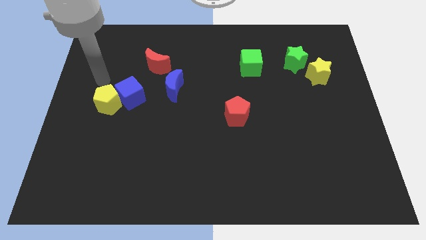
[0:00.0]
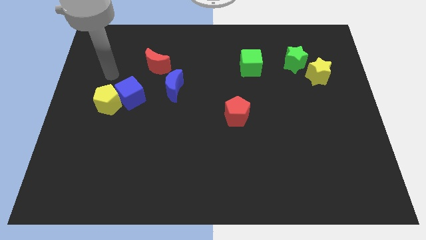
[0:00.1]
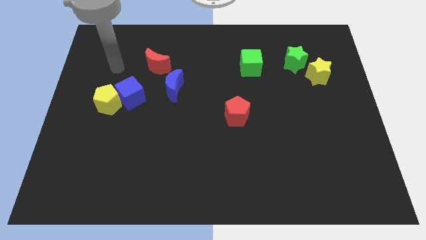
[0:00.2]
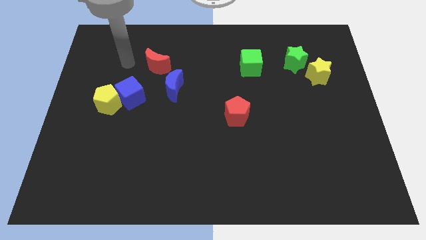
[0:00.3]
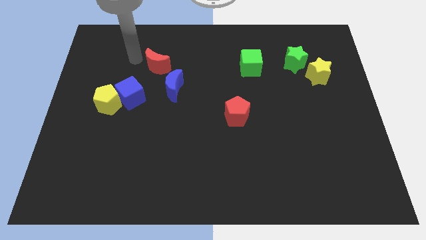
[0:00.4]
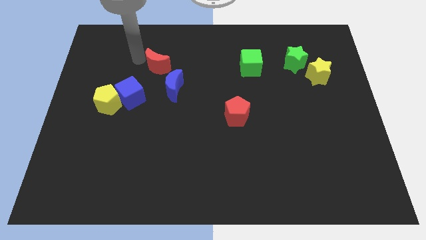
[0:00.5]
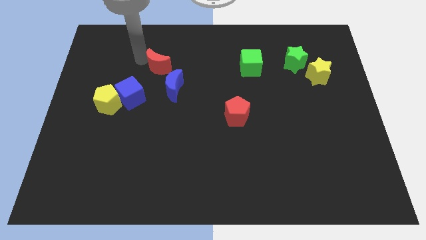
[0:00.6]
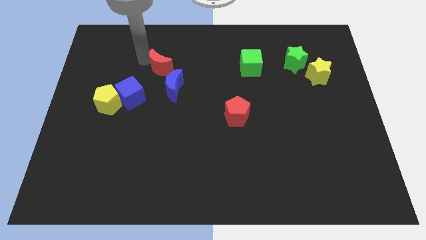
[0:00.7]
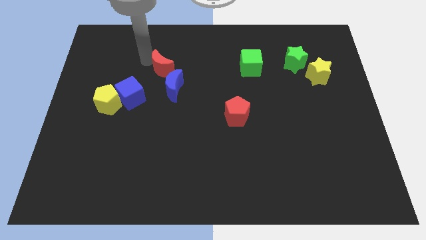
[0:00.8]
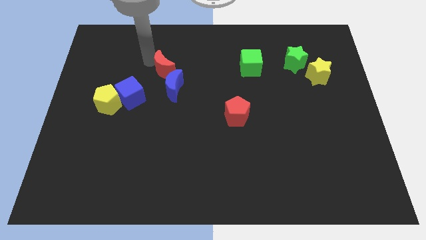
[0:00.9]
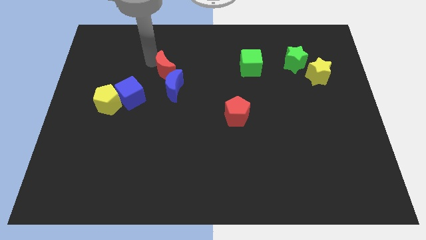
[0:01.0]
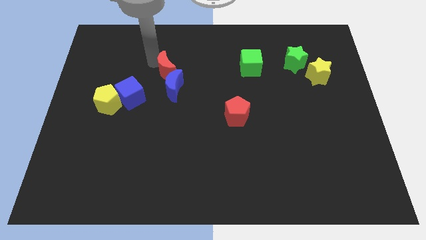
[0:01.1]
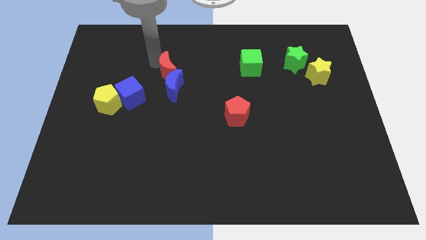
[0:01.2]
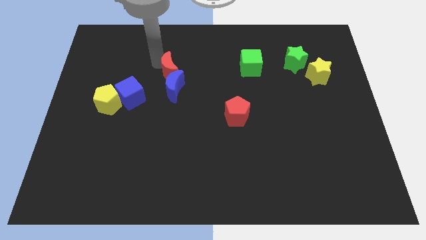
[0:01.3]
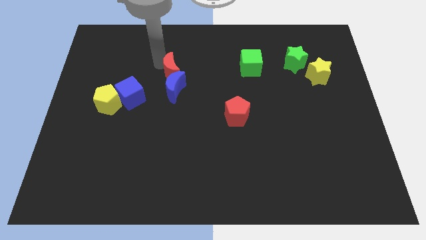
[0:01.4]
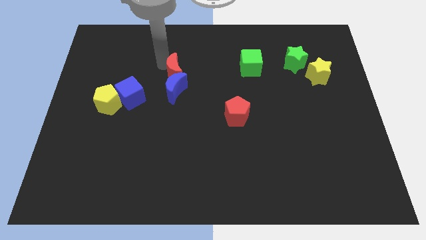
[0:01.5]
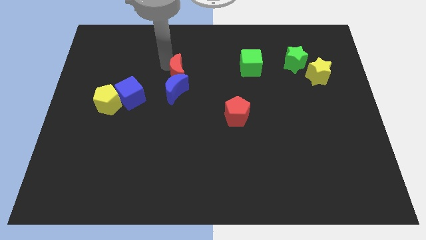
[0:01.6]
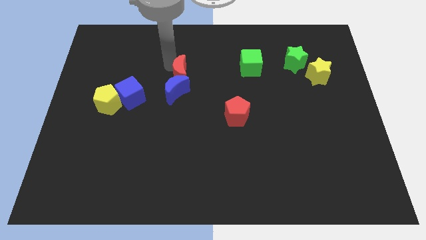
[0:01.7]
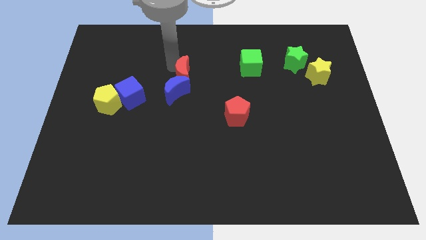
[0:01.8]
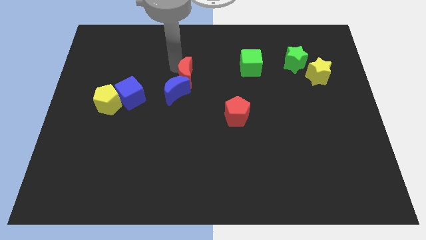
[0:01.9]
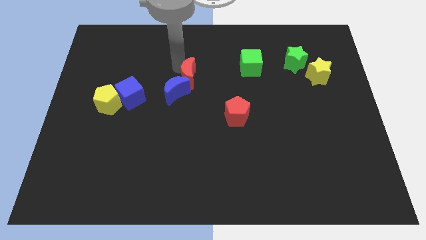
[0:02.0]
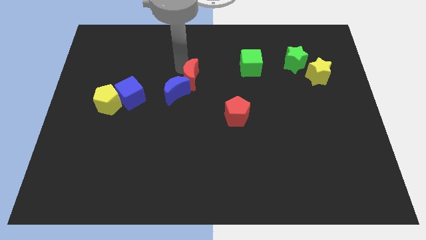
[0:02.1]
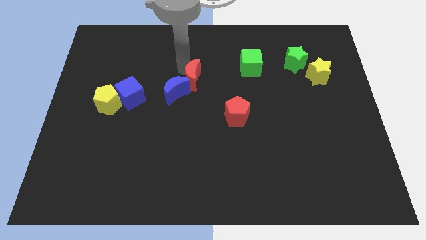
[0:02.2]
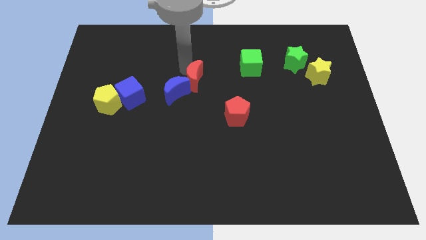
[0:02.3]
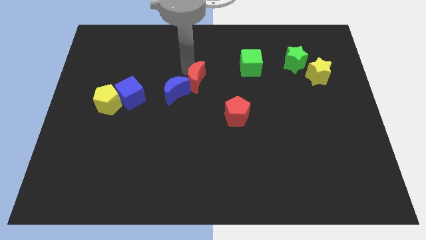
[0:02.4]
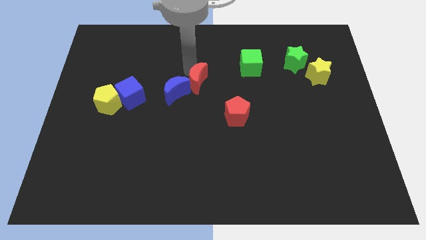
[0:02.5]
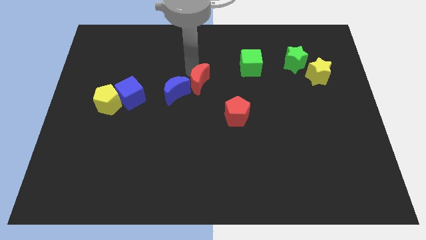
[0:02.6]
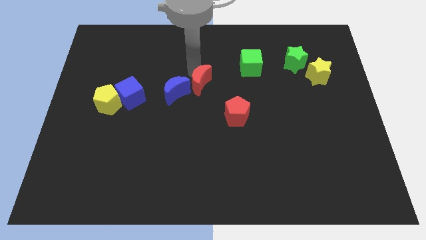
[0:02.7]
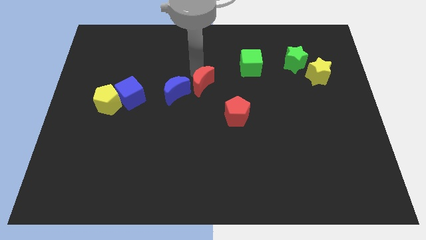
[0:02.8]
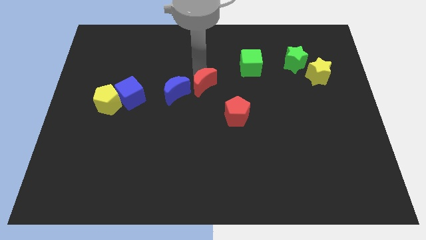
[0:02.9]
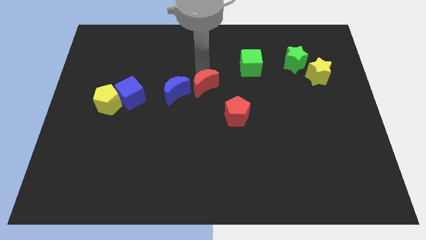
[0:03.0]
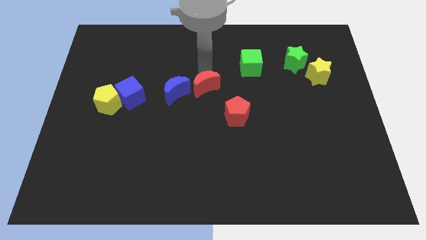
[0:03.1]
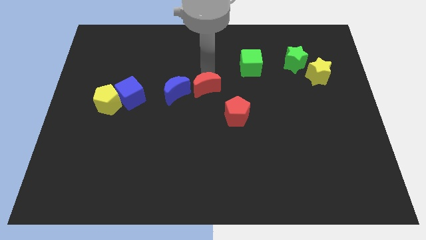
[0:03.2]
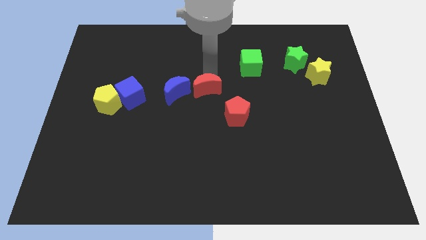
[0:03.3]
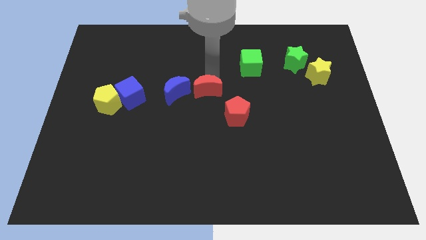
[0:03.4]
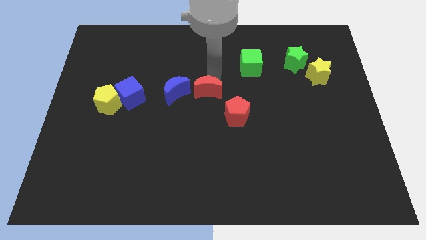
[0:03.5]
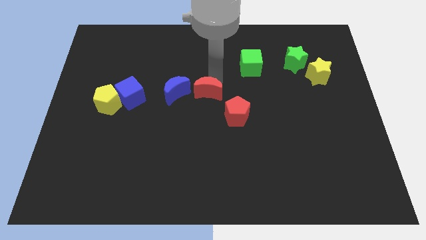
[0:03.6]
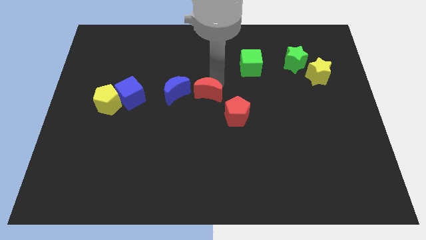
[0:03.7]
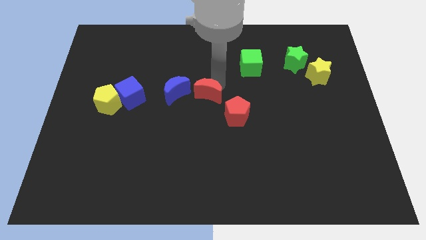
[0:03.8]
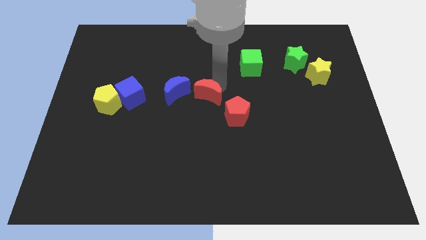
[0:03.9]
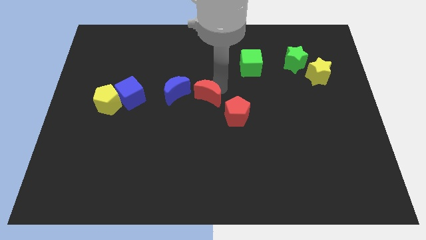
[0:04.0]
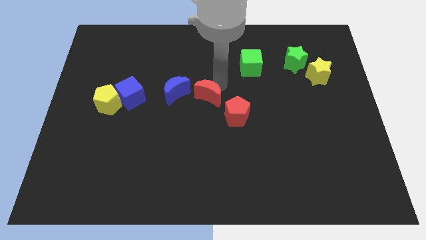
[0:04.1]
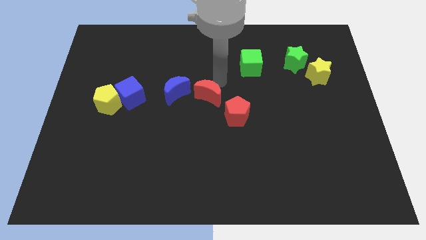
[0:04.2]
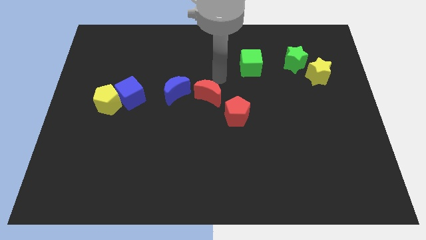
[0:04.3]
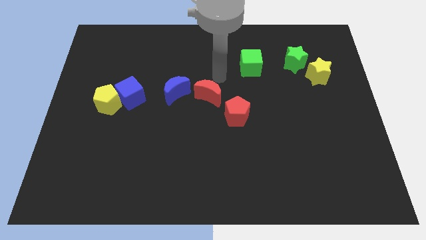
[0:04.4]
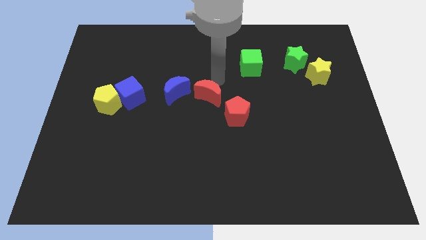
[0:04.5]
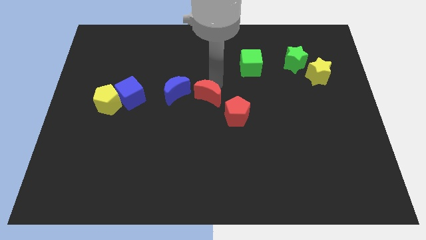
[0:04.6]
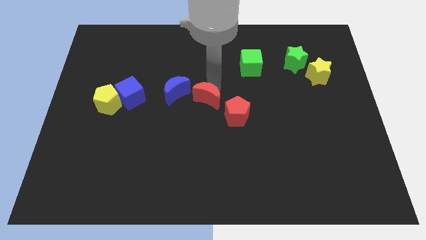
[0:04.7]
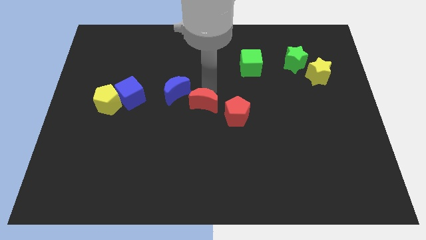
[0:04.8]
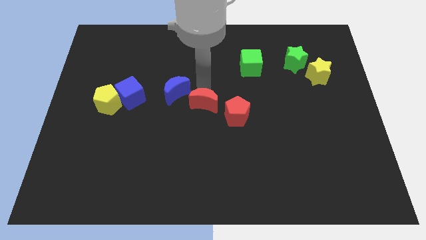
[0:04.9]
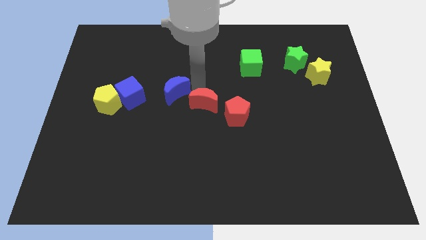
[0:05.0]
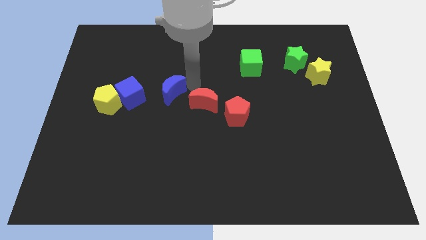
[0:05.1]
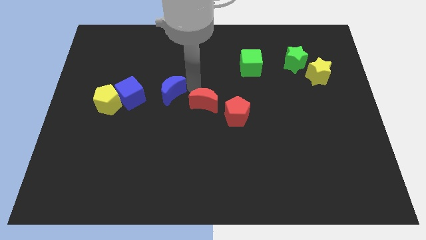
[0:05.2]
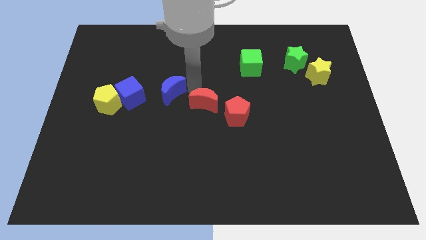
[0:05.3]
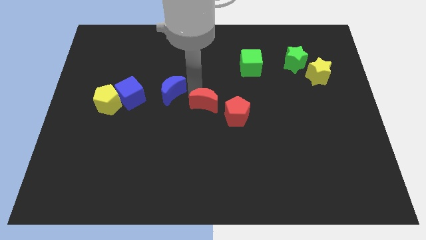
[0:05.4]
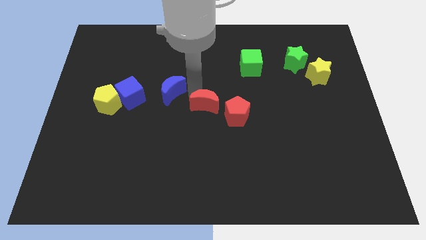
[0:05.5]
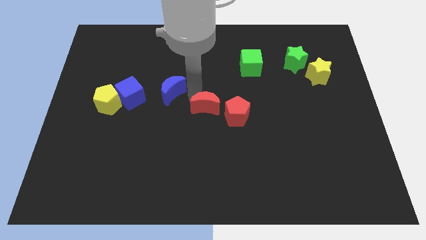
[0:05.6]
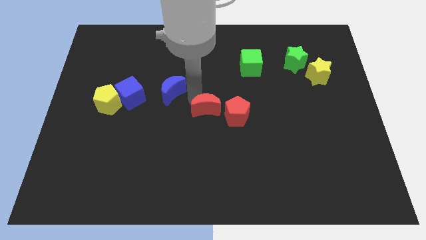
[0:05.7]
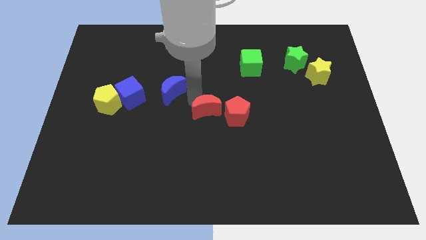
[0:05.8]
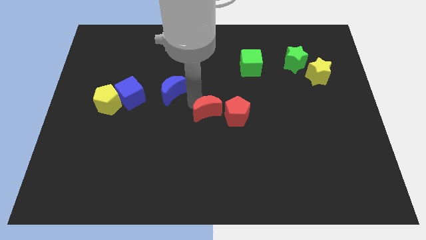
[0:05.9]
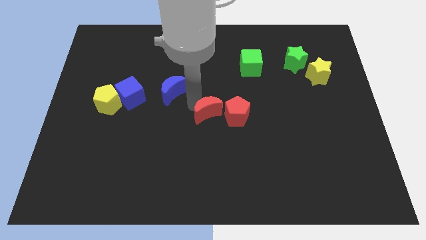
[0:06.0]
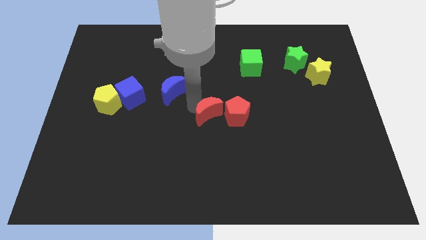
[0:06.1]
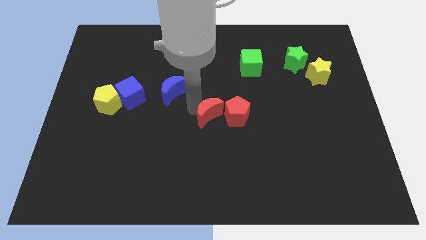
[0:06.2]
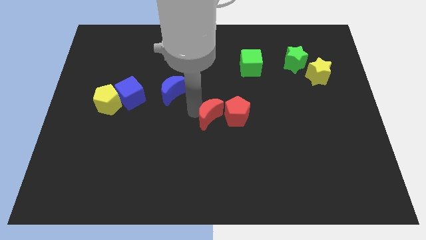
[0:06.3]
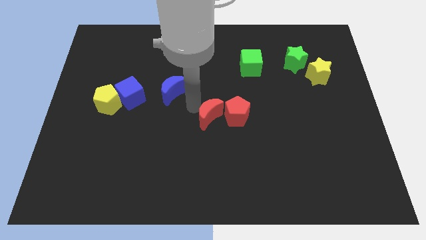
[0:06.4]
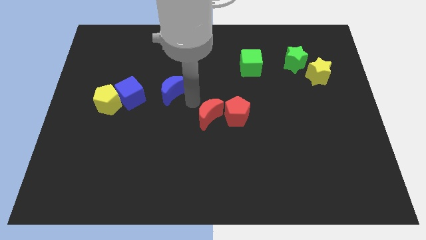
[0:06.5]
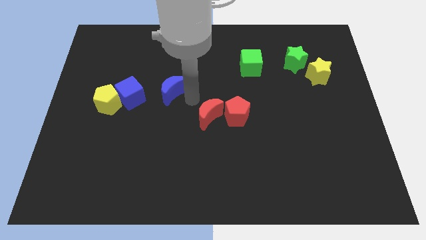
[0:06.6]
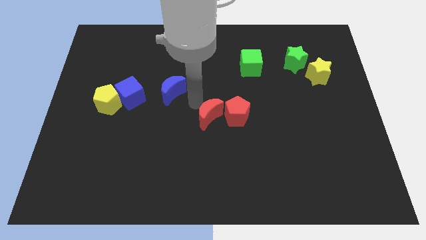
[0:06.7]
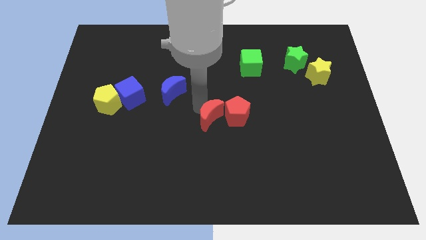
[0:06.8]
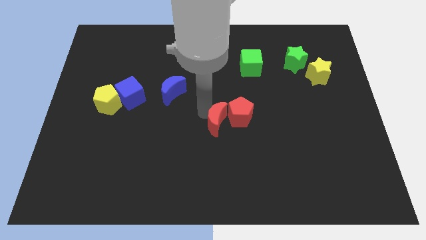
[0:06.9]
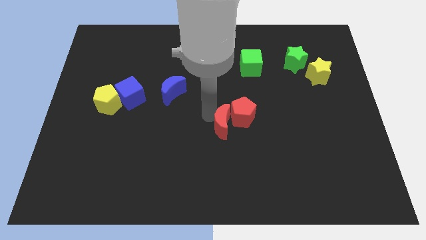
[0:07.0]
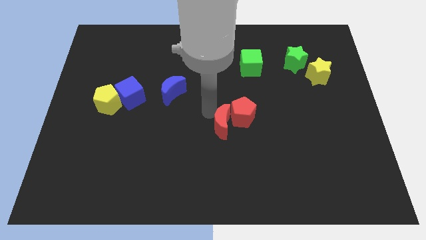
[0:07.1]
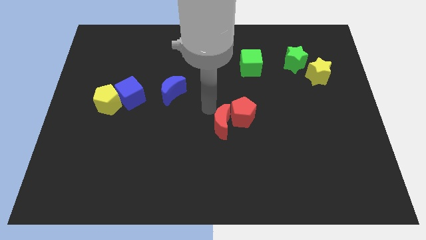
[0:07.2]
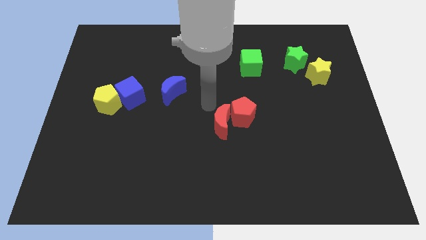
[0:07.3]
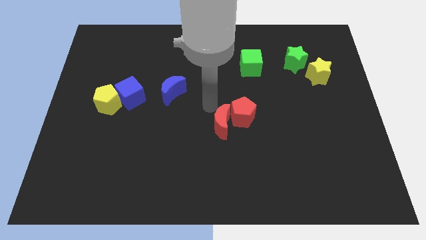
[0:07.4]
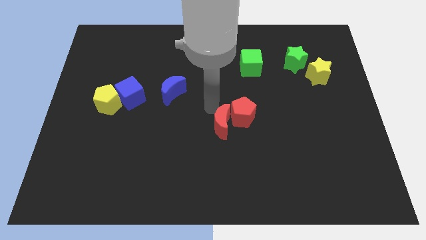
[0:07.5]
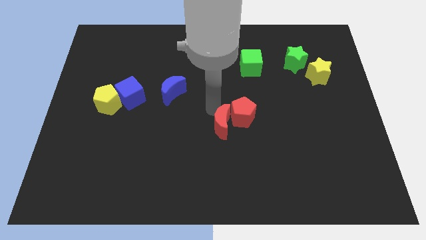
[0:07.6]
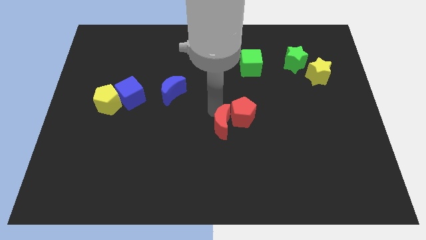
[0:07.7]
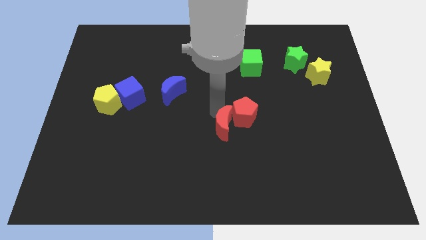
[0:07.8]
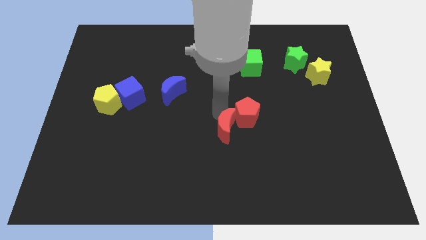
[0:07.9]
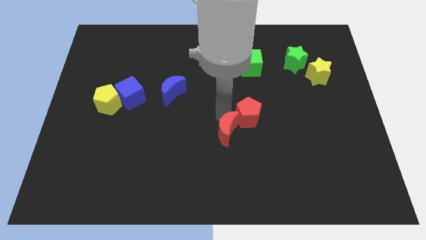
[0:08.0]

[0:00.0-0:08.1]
push the red moon to the bottom side of the red pentagon
